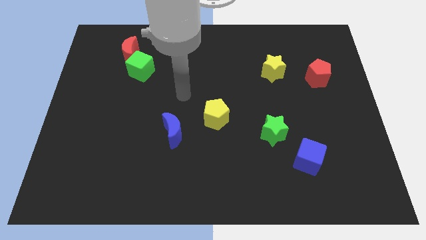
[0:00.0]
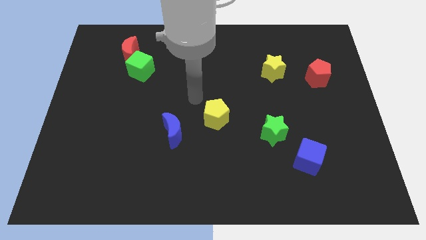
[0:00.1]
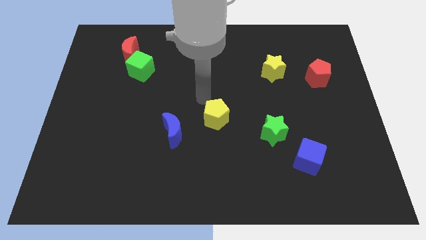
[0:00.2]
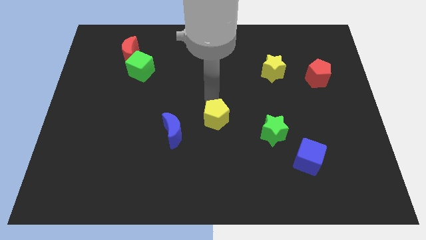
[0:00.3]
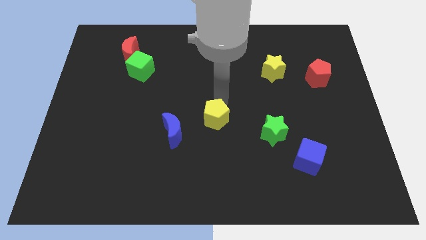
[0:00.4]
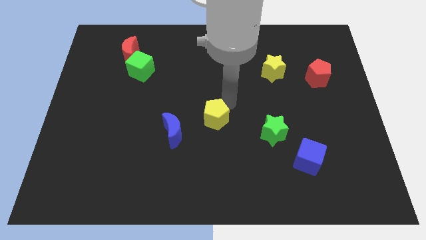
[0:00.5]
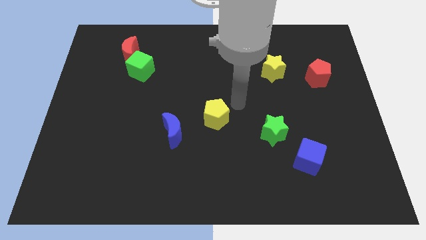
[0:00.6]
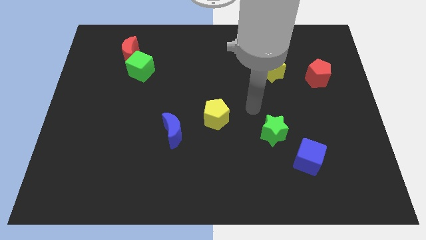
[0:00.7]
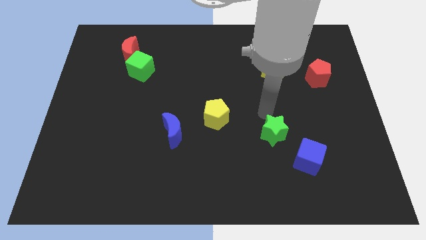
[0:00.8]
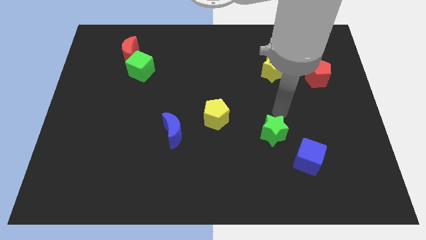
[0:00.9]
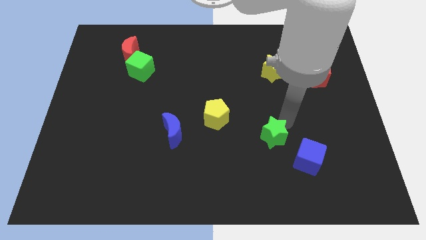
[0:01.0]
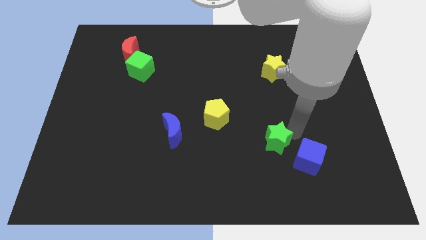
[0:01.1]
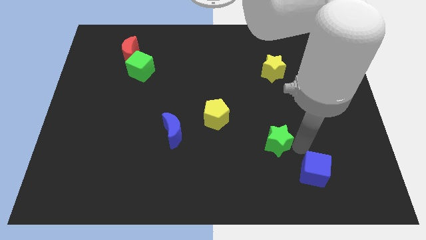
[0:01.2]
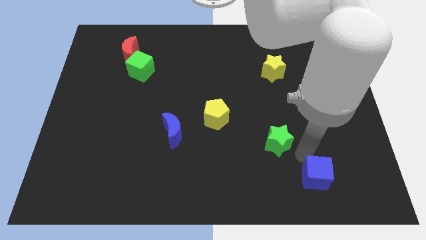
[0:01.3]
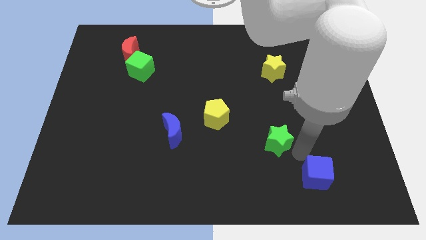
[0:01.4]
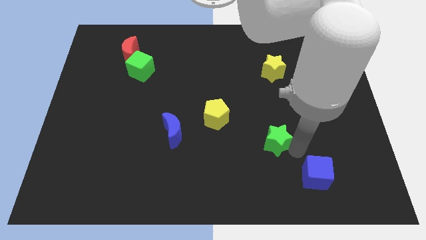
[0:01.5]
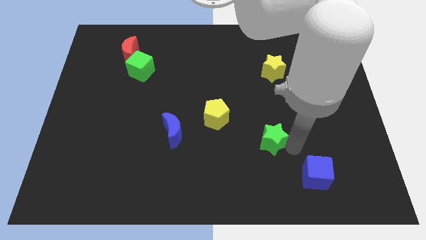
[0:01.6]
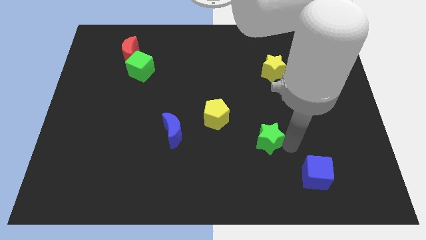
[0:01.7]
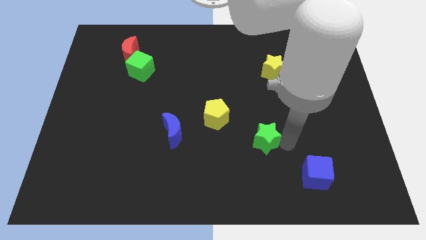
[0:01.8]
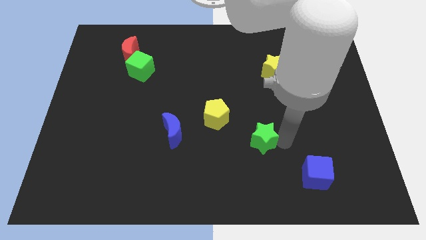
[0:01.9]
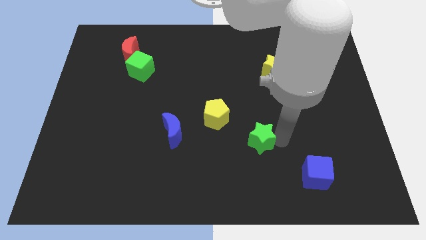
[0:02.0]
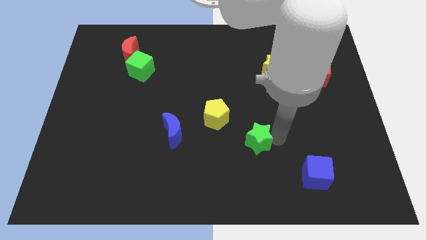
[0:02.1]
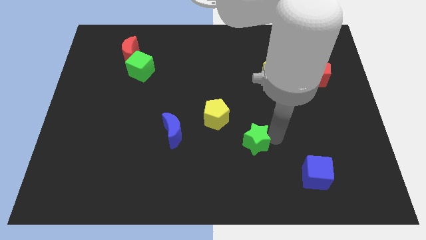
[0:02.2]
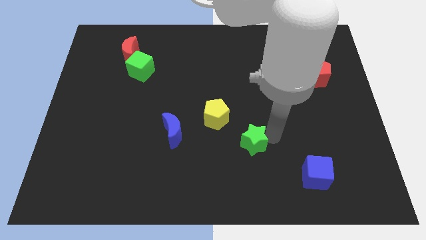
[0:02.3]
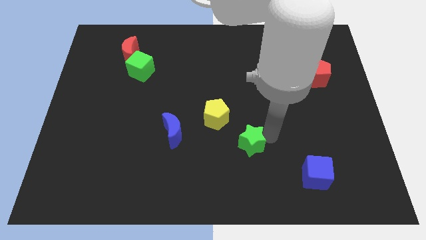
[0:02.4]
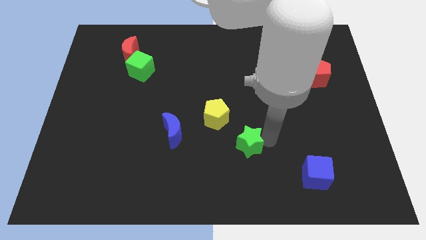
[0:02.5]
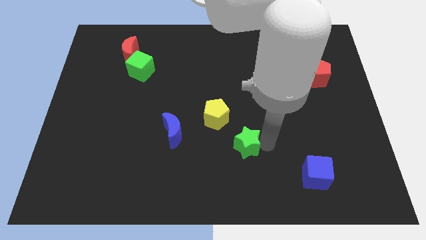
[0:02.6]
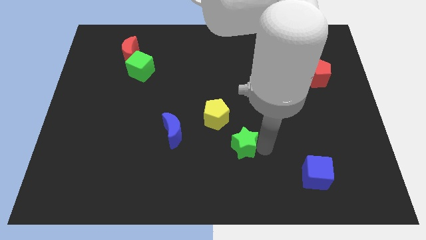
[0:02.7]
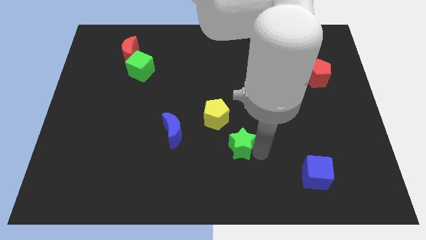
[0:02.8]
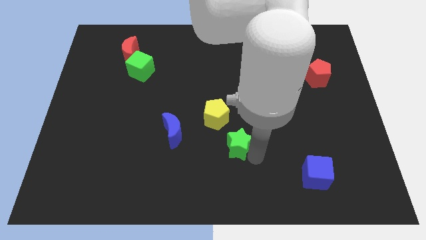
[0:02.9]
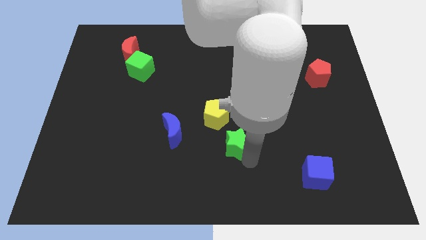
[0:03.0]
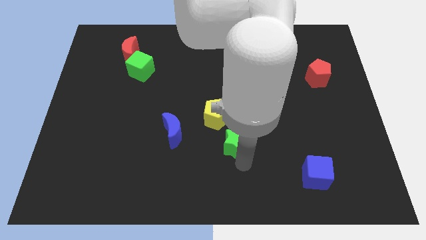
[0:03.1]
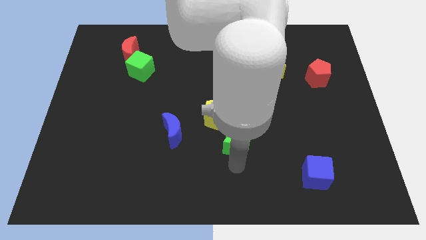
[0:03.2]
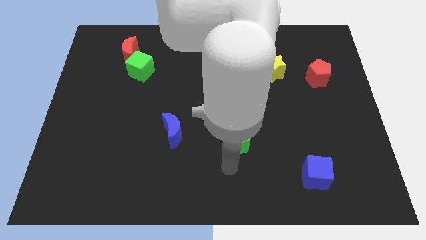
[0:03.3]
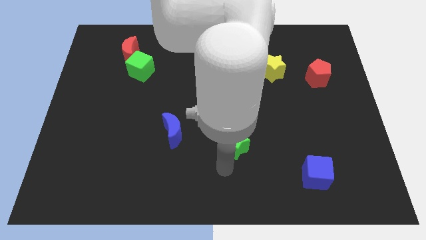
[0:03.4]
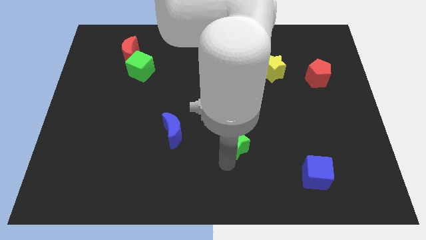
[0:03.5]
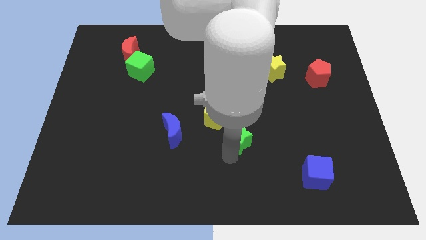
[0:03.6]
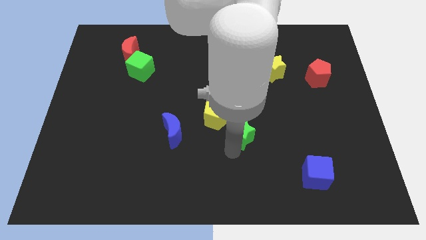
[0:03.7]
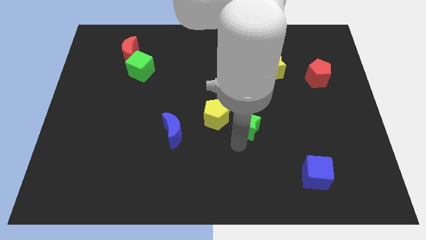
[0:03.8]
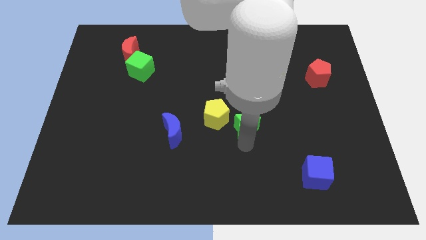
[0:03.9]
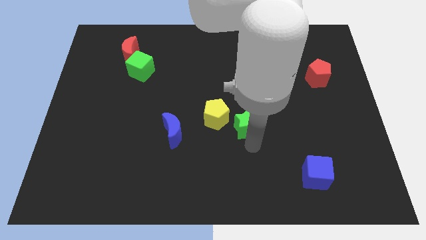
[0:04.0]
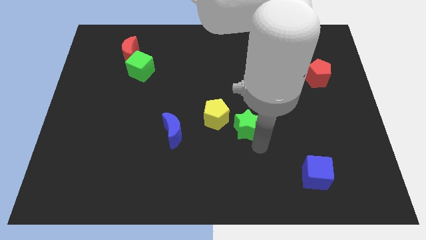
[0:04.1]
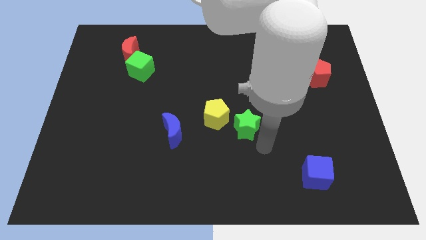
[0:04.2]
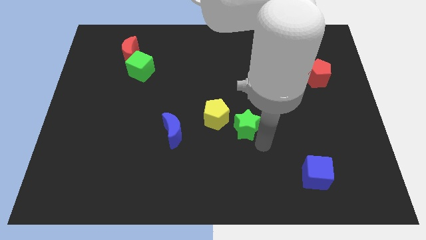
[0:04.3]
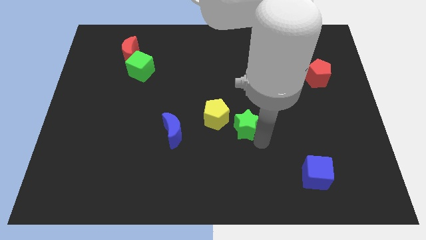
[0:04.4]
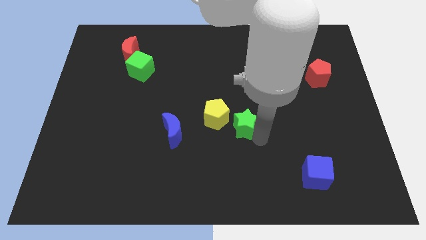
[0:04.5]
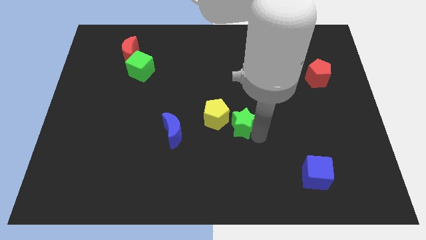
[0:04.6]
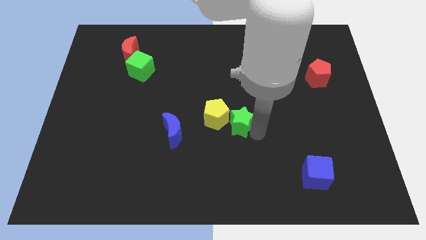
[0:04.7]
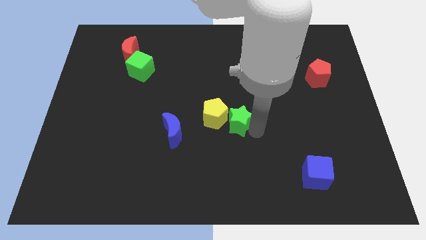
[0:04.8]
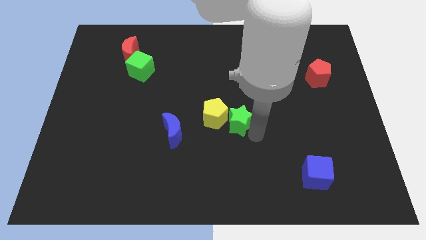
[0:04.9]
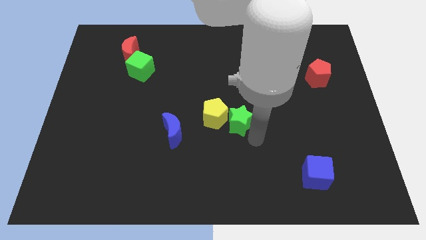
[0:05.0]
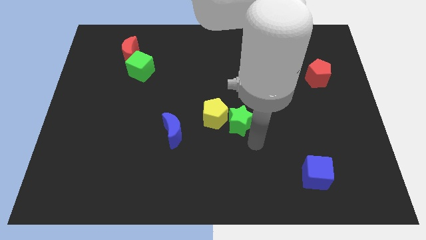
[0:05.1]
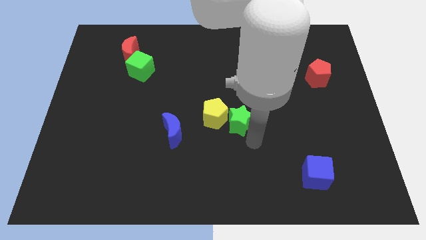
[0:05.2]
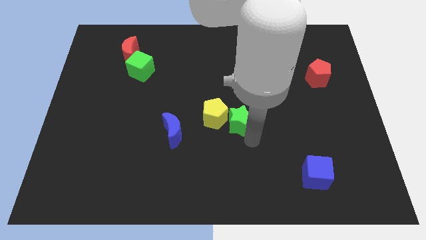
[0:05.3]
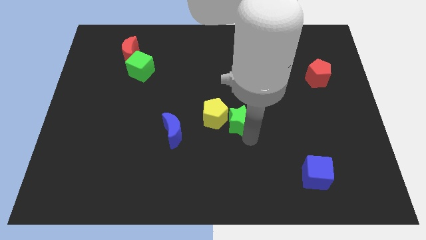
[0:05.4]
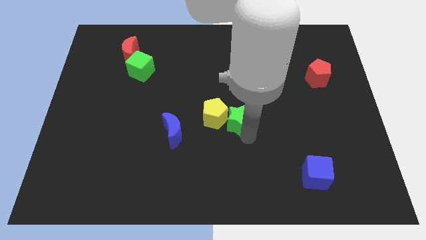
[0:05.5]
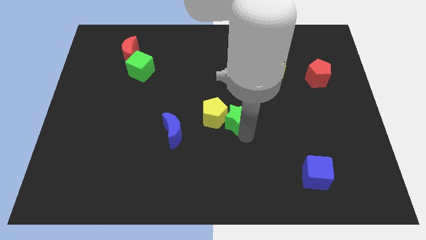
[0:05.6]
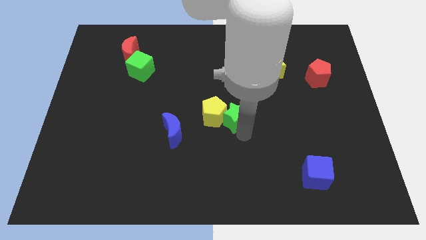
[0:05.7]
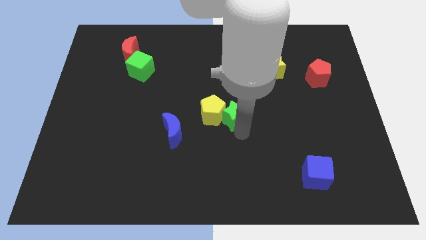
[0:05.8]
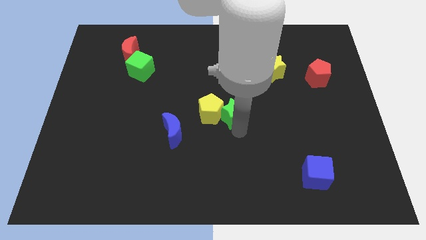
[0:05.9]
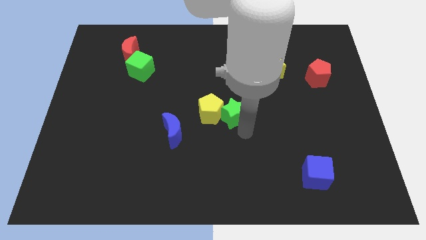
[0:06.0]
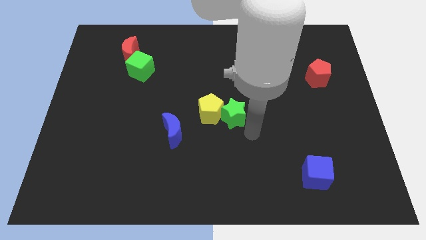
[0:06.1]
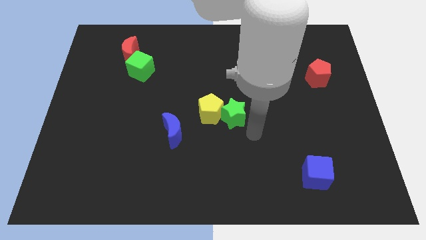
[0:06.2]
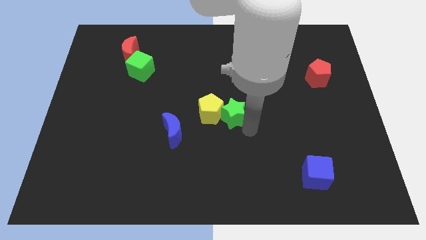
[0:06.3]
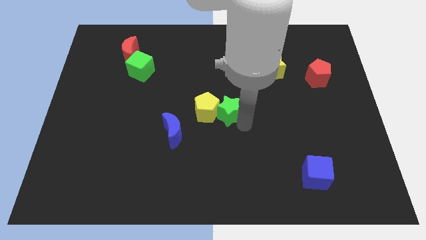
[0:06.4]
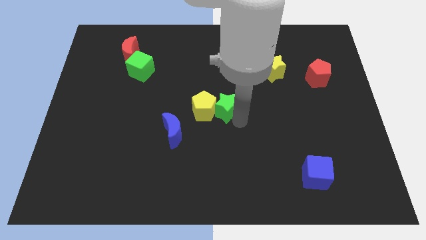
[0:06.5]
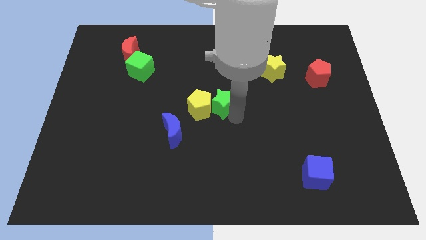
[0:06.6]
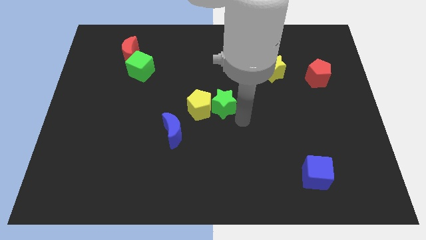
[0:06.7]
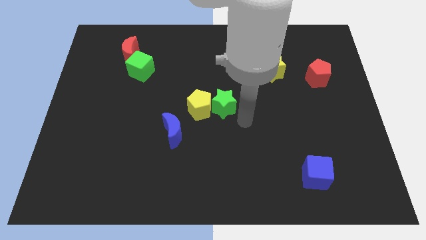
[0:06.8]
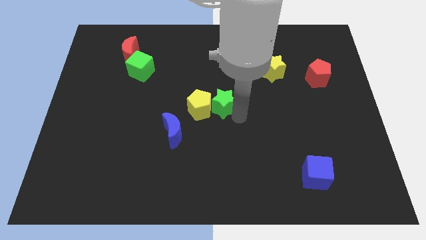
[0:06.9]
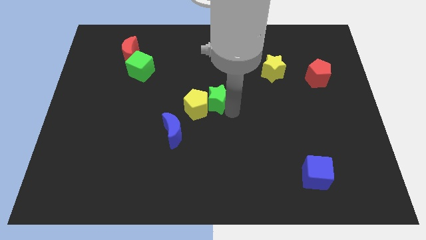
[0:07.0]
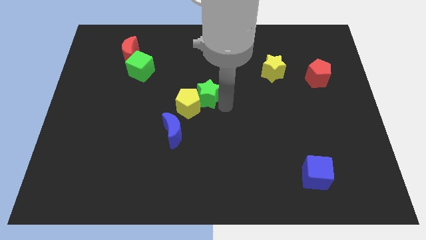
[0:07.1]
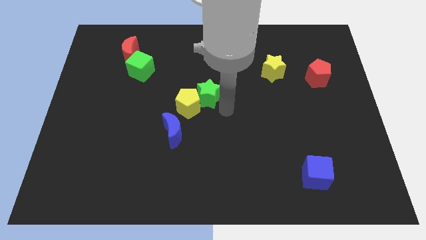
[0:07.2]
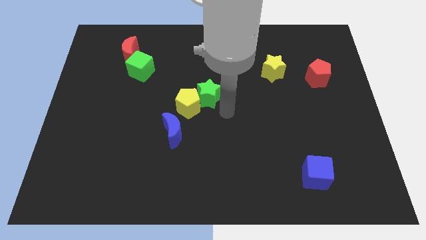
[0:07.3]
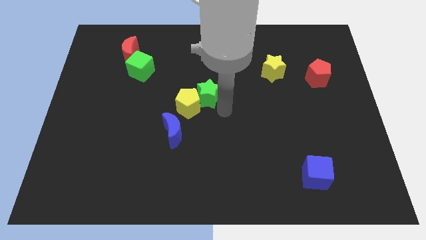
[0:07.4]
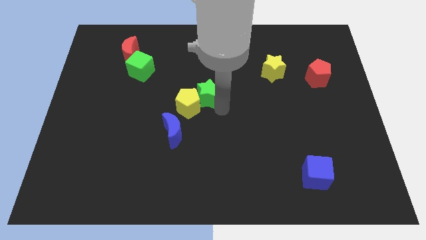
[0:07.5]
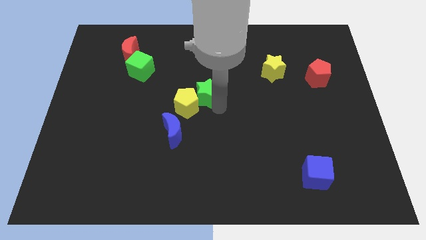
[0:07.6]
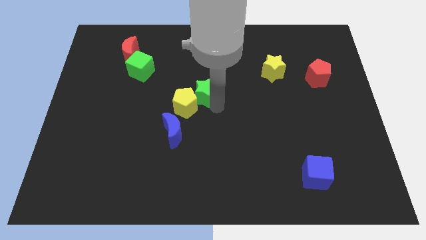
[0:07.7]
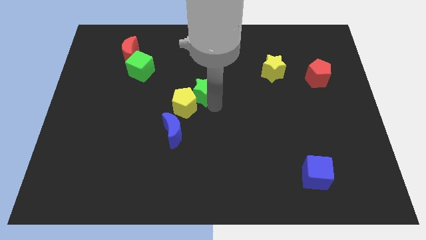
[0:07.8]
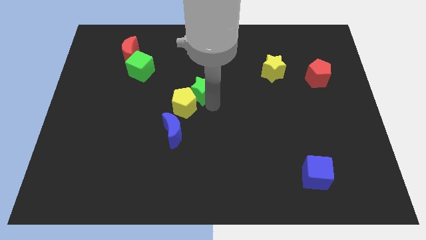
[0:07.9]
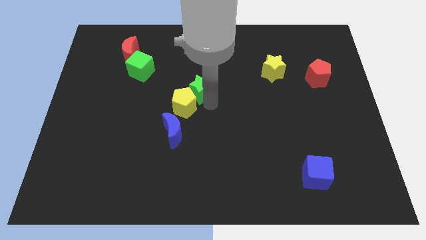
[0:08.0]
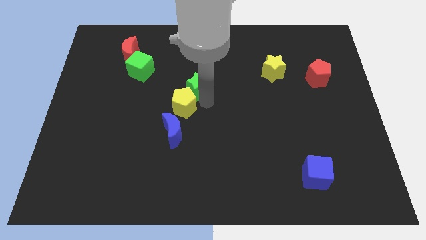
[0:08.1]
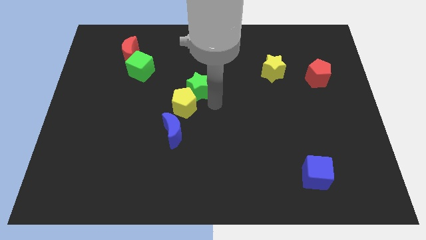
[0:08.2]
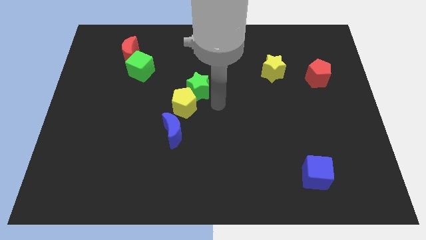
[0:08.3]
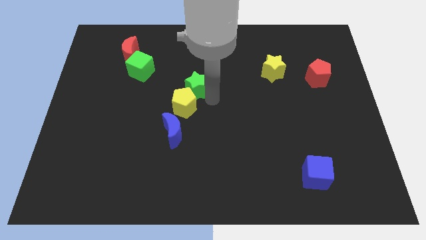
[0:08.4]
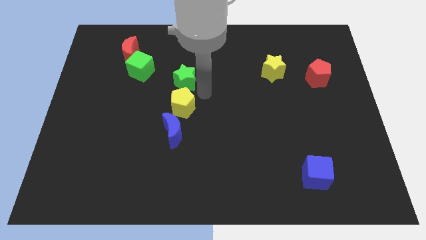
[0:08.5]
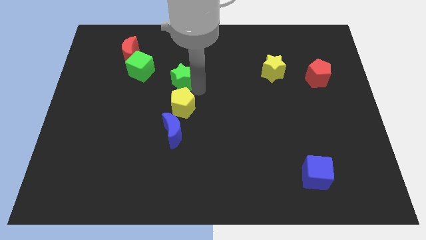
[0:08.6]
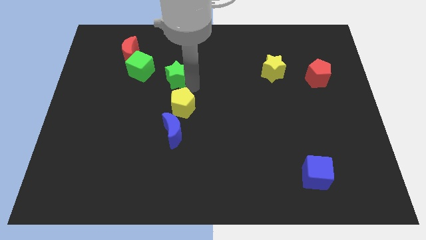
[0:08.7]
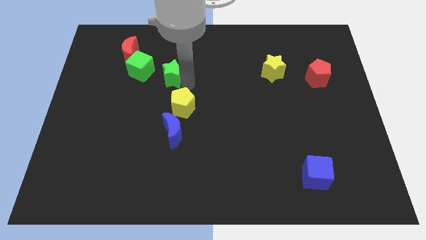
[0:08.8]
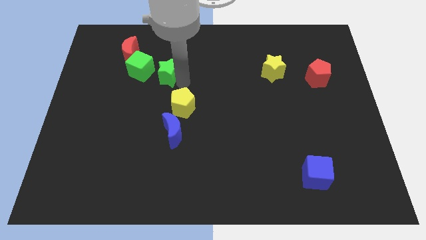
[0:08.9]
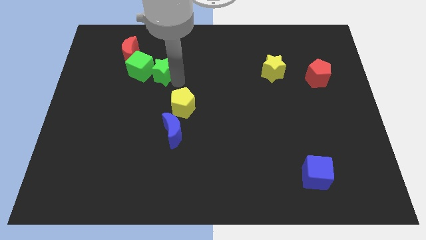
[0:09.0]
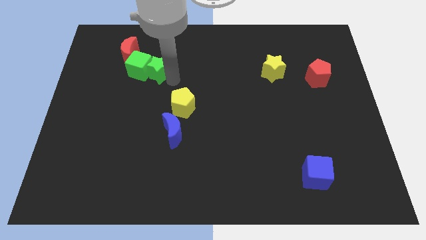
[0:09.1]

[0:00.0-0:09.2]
slide the green star diagonally up and to the right of the green cube
